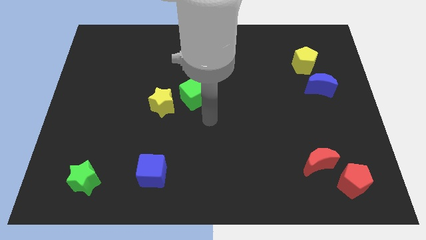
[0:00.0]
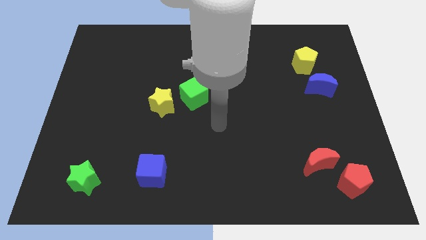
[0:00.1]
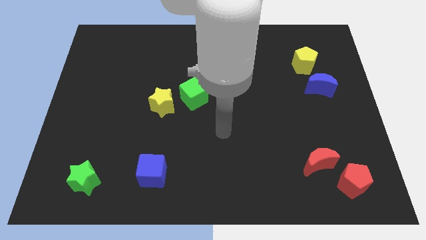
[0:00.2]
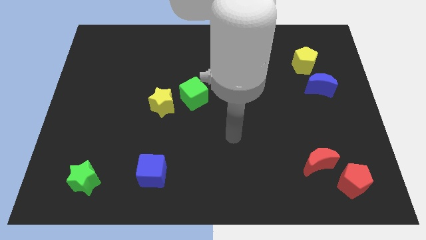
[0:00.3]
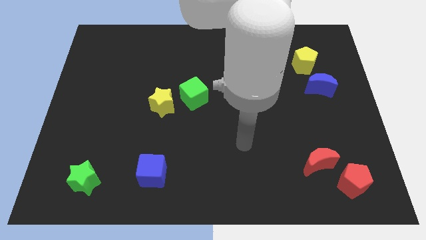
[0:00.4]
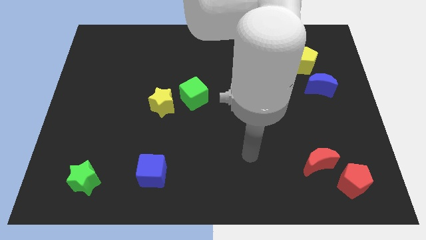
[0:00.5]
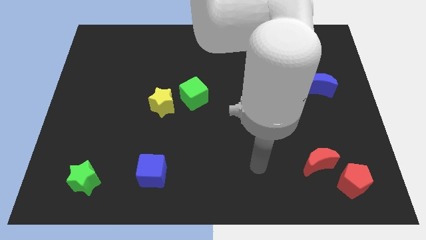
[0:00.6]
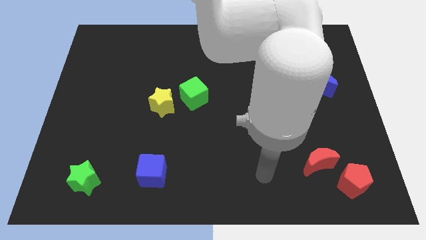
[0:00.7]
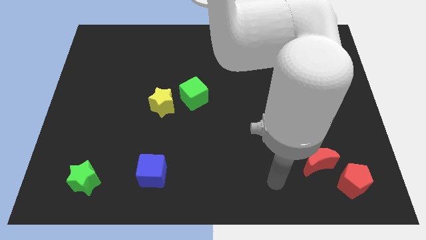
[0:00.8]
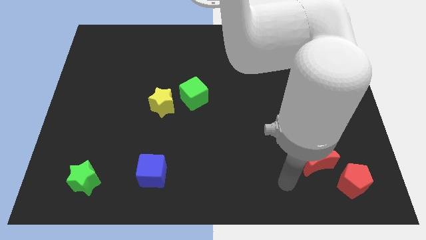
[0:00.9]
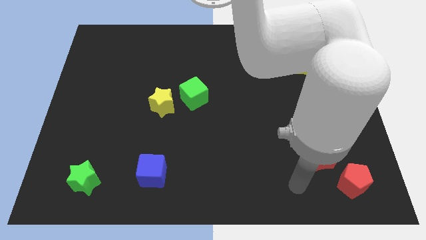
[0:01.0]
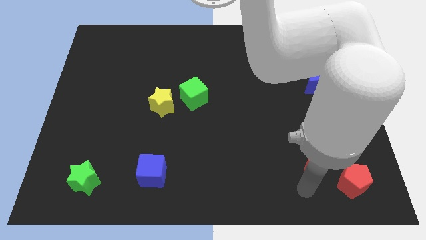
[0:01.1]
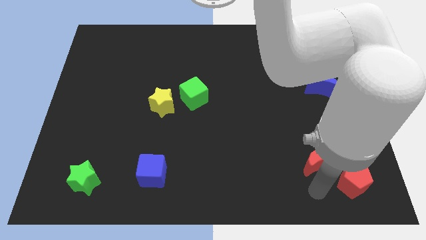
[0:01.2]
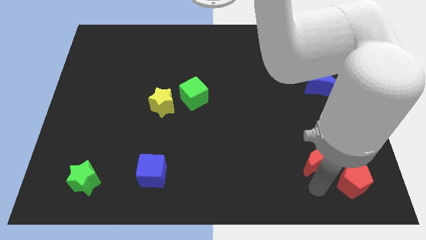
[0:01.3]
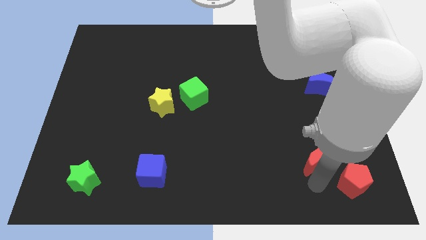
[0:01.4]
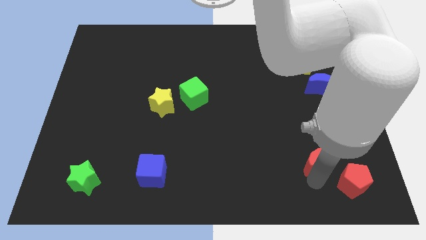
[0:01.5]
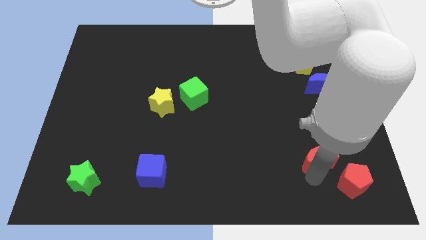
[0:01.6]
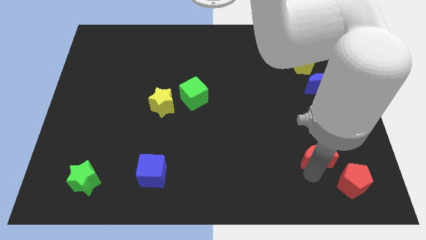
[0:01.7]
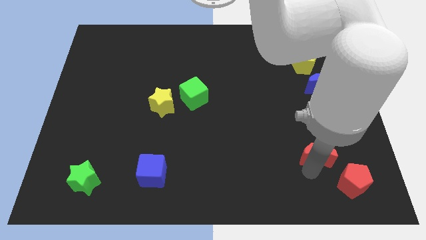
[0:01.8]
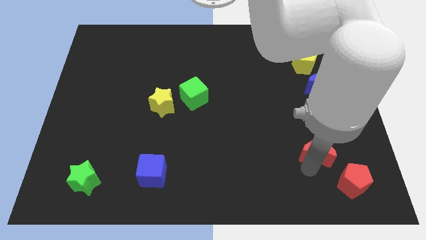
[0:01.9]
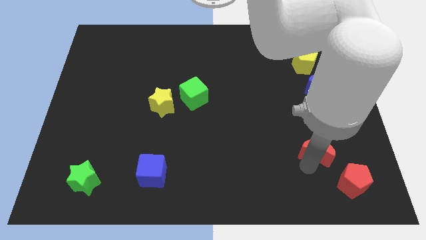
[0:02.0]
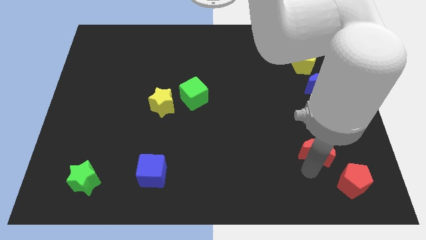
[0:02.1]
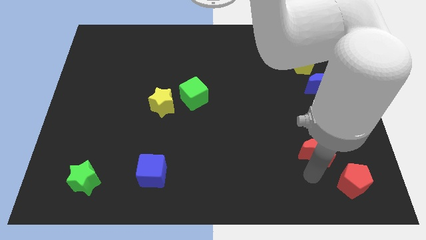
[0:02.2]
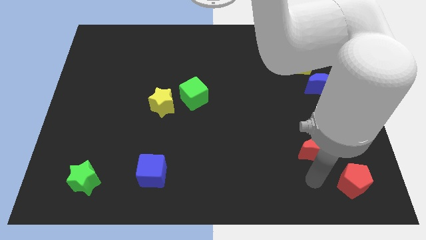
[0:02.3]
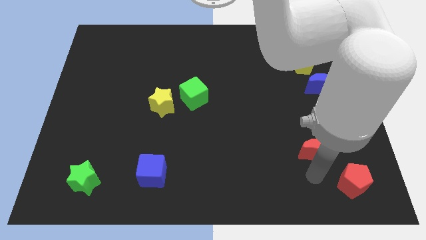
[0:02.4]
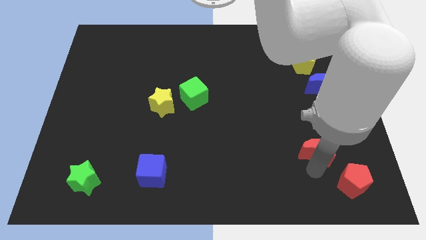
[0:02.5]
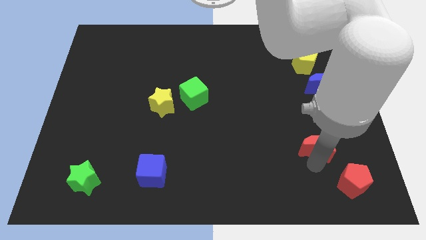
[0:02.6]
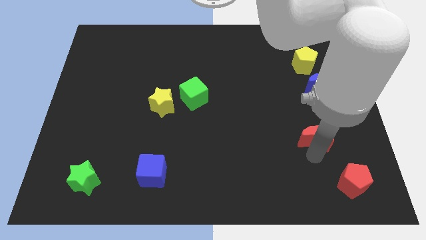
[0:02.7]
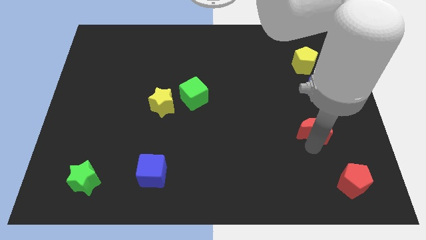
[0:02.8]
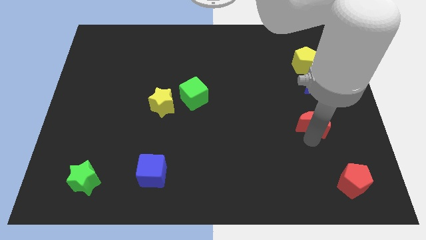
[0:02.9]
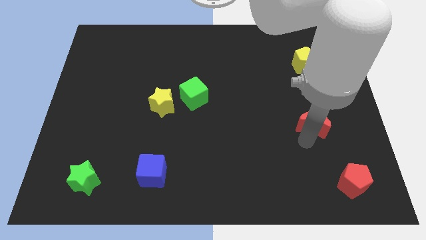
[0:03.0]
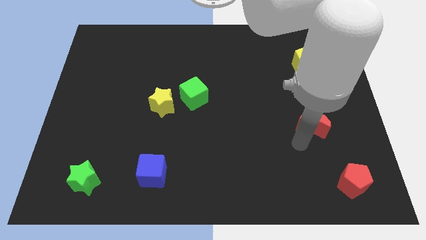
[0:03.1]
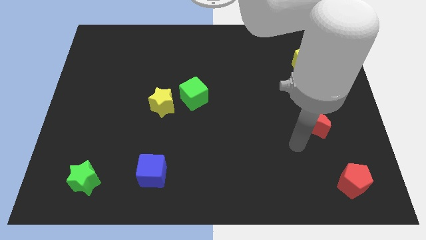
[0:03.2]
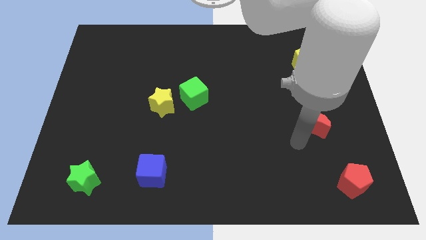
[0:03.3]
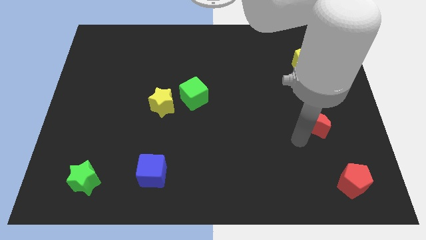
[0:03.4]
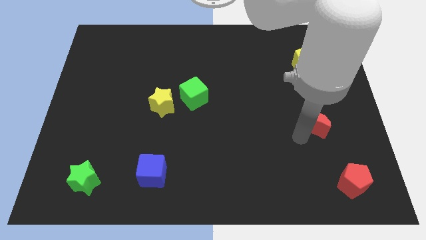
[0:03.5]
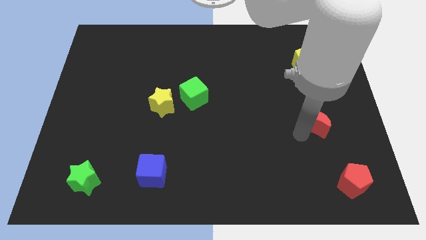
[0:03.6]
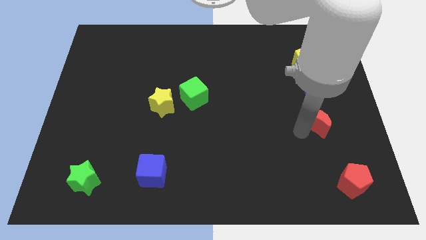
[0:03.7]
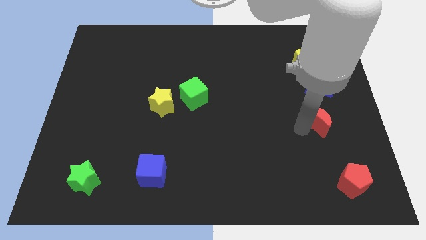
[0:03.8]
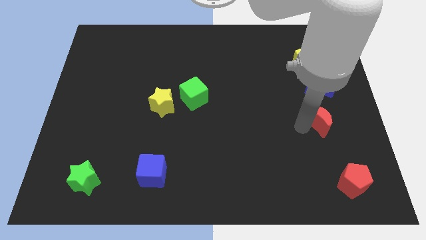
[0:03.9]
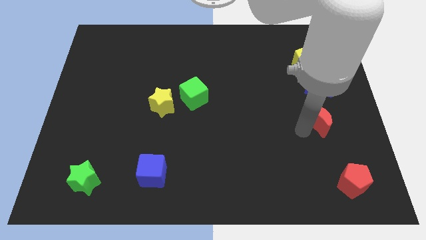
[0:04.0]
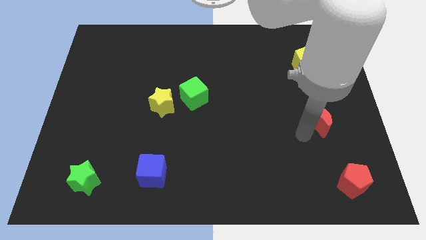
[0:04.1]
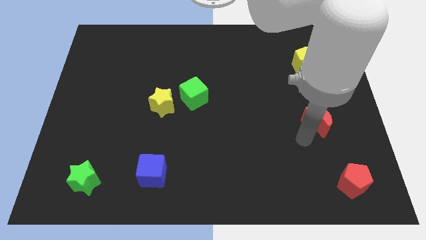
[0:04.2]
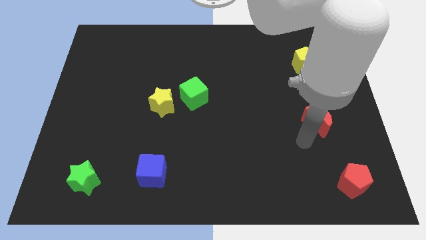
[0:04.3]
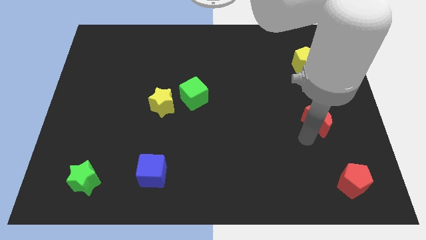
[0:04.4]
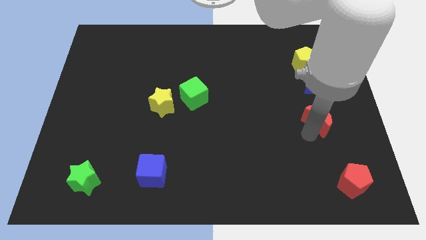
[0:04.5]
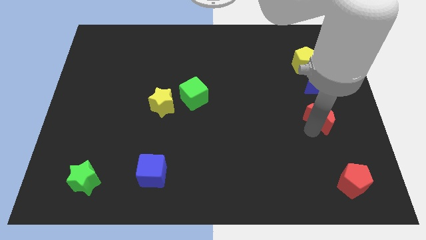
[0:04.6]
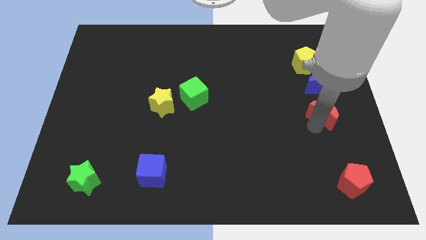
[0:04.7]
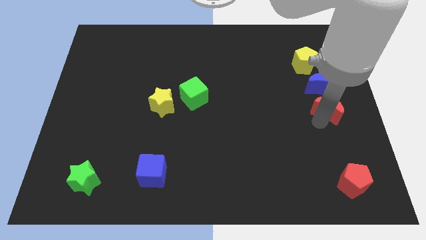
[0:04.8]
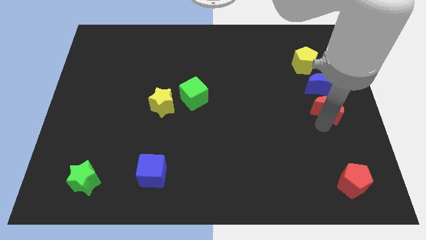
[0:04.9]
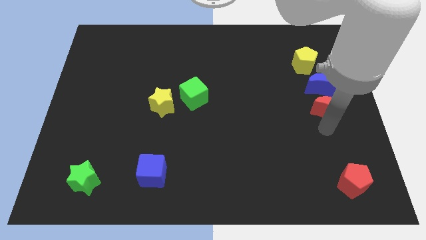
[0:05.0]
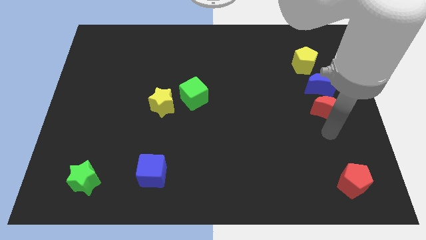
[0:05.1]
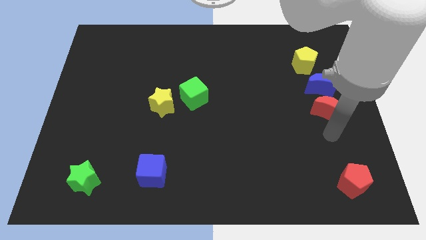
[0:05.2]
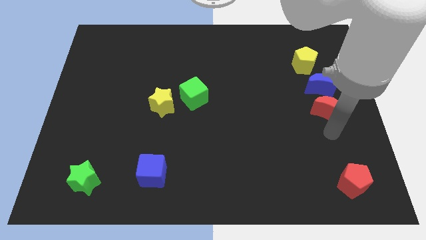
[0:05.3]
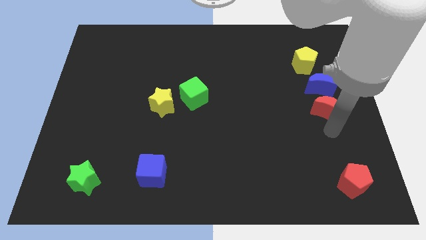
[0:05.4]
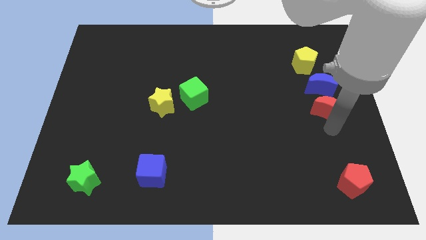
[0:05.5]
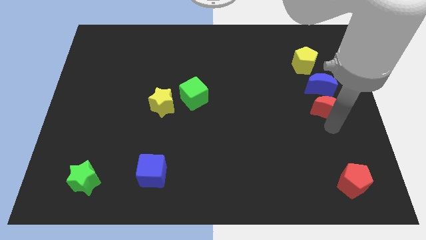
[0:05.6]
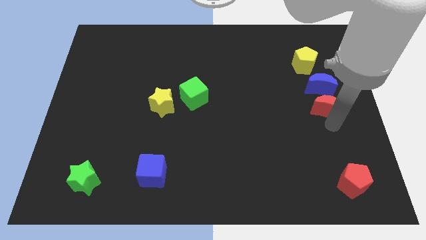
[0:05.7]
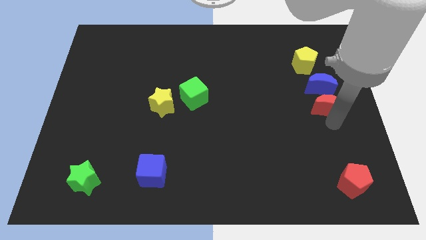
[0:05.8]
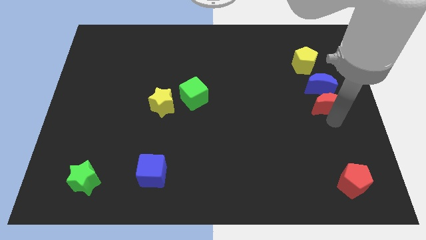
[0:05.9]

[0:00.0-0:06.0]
put the red moon close to the blue moon

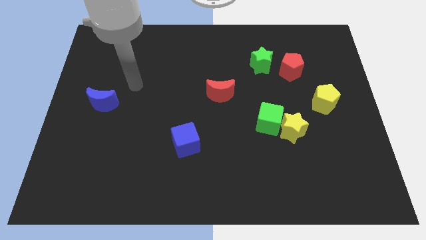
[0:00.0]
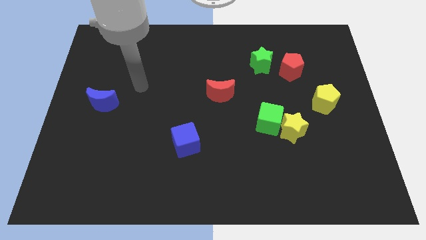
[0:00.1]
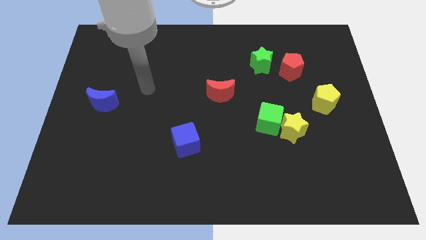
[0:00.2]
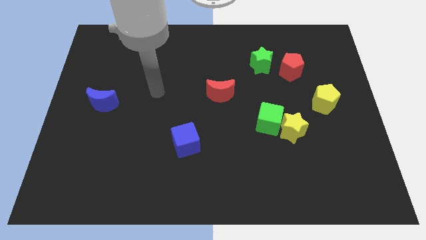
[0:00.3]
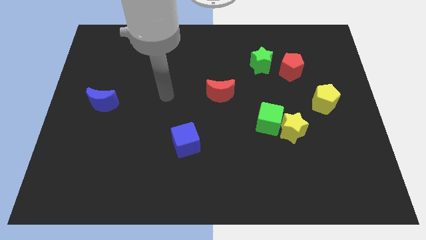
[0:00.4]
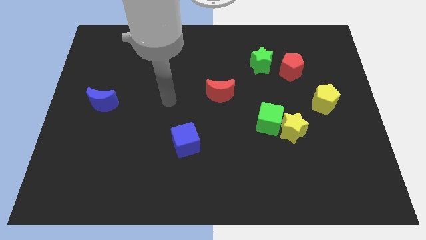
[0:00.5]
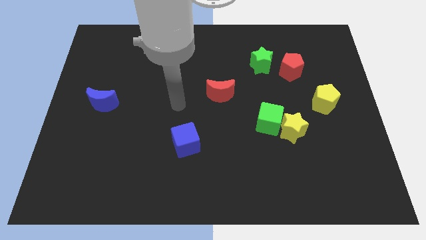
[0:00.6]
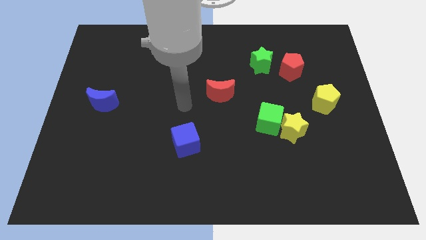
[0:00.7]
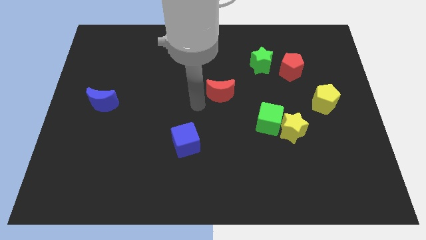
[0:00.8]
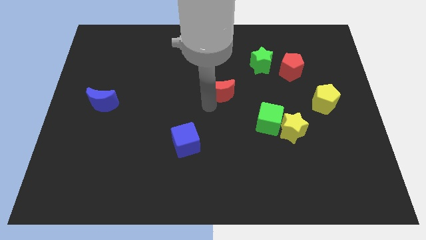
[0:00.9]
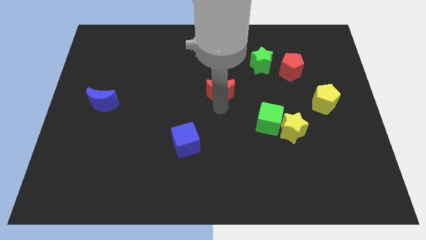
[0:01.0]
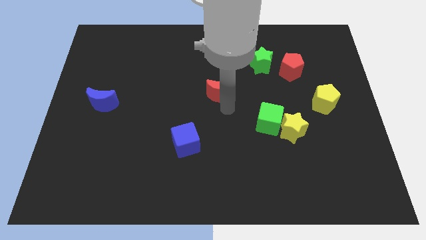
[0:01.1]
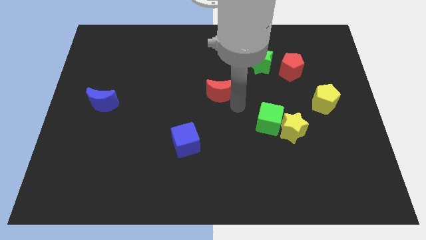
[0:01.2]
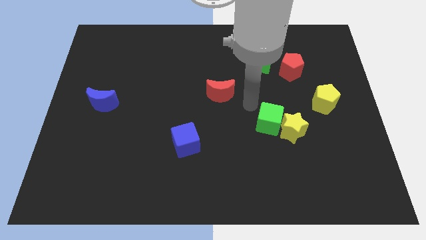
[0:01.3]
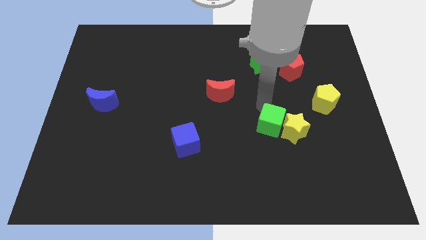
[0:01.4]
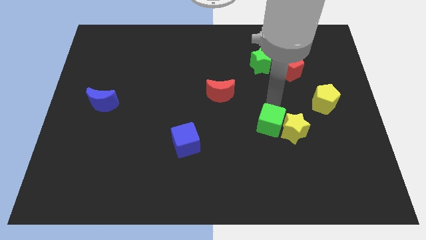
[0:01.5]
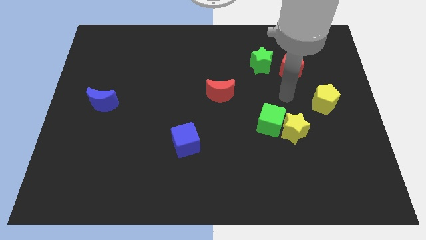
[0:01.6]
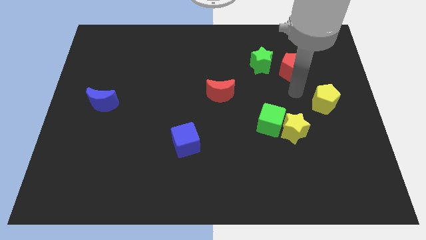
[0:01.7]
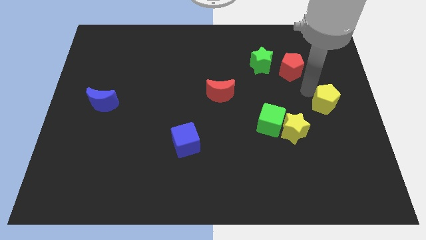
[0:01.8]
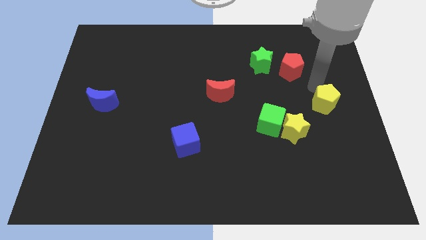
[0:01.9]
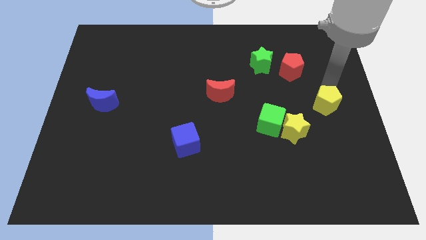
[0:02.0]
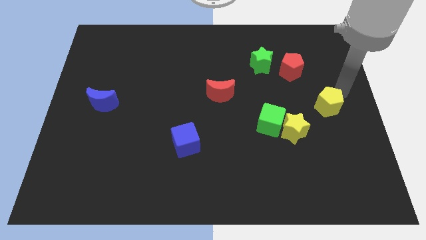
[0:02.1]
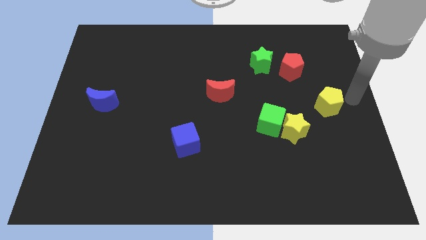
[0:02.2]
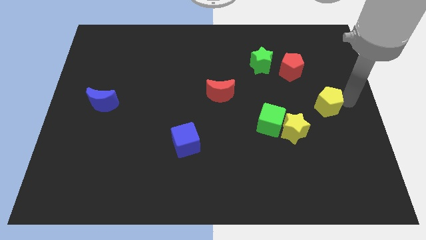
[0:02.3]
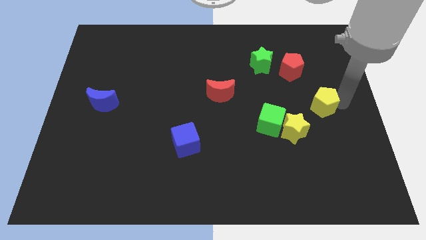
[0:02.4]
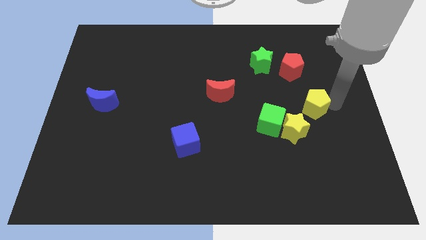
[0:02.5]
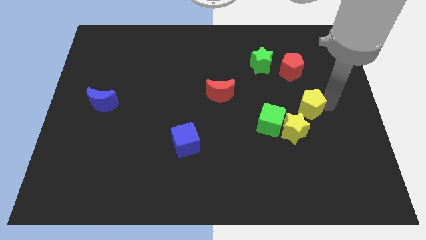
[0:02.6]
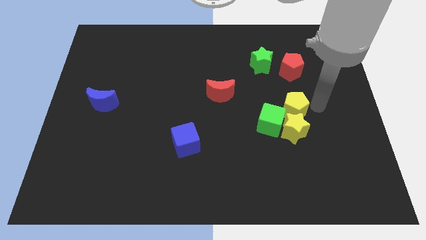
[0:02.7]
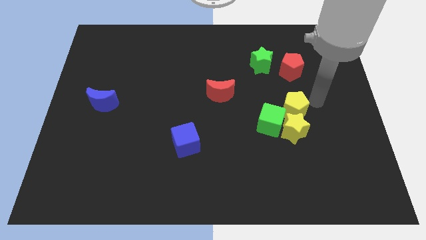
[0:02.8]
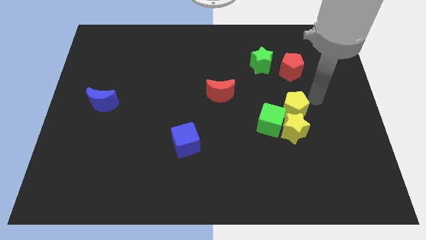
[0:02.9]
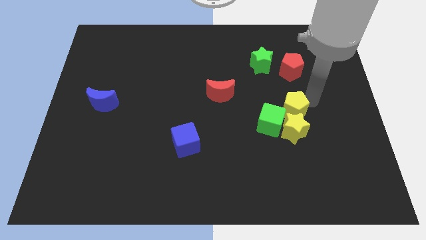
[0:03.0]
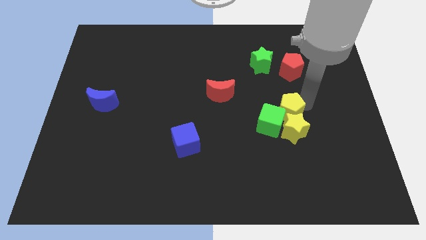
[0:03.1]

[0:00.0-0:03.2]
put the yellow pentagon close to the green cube
